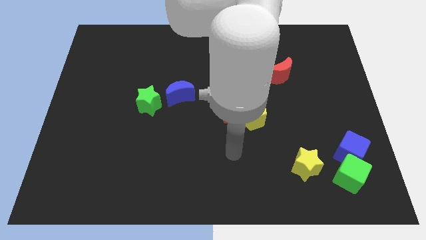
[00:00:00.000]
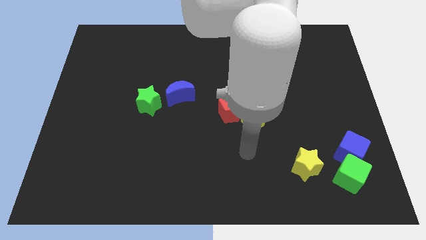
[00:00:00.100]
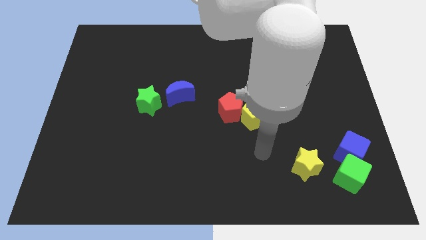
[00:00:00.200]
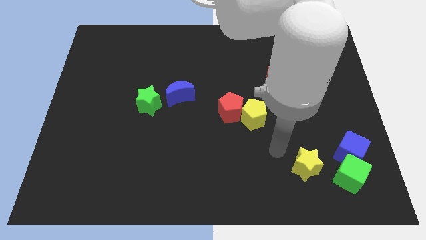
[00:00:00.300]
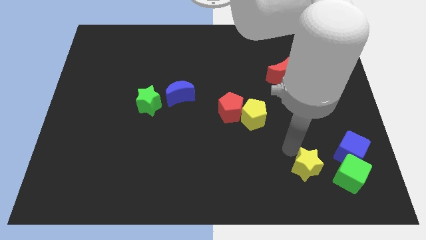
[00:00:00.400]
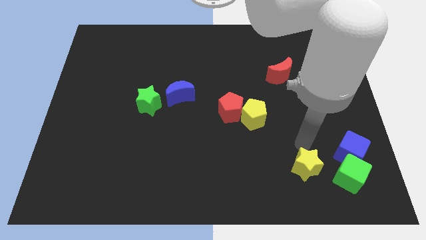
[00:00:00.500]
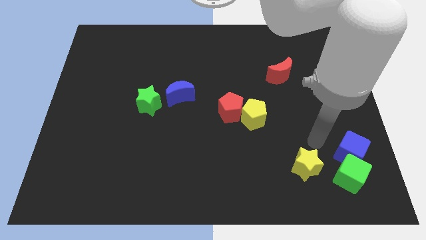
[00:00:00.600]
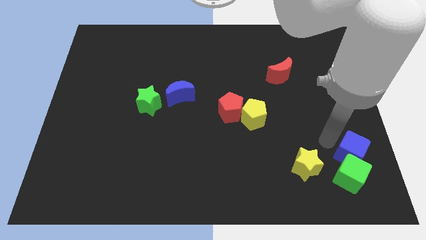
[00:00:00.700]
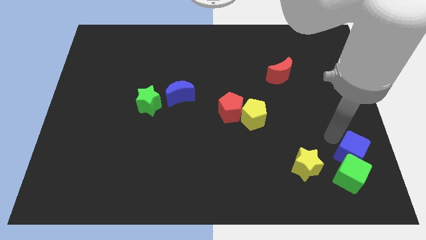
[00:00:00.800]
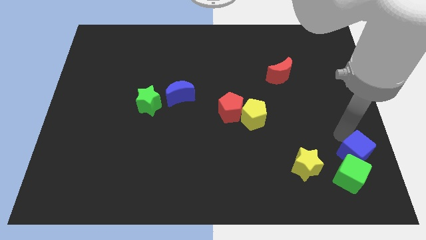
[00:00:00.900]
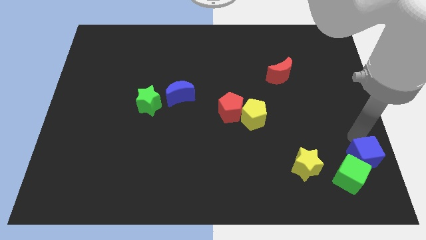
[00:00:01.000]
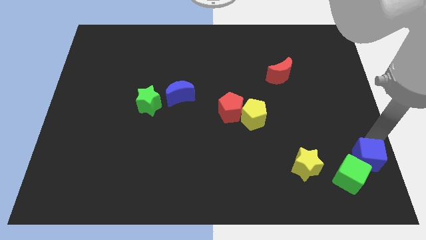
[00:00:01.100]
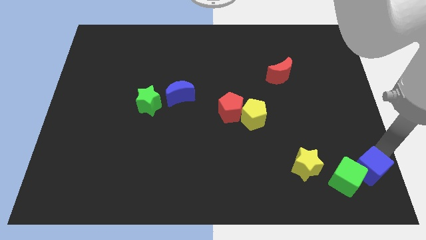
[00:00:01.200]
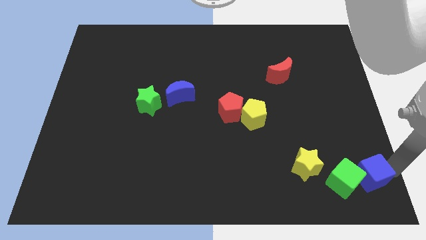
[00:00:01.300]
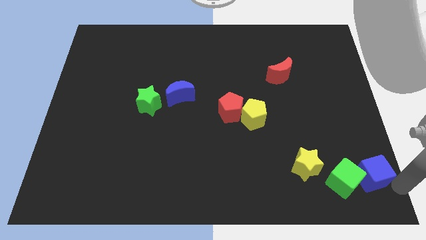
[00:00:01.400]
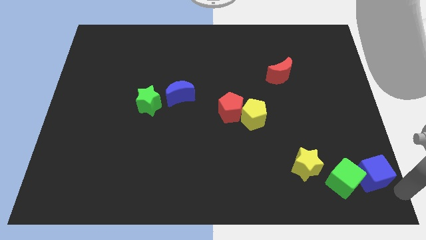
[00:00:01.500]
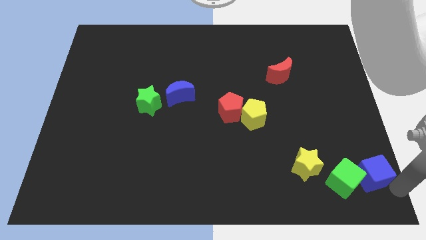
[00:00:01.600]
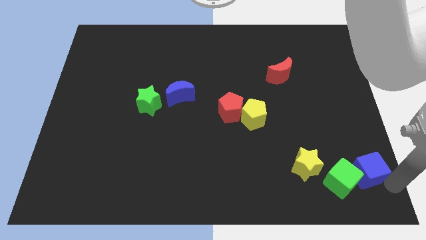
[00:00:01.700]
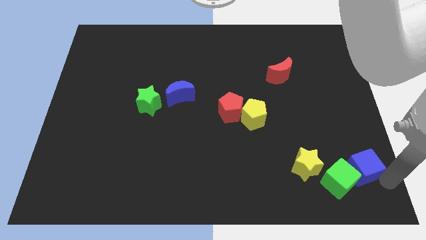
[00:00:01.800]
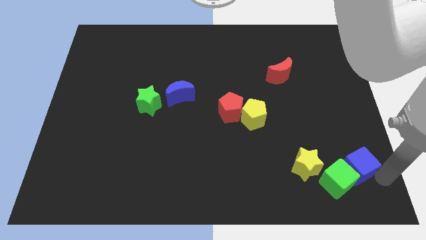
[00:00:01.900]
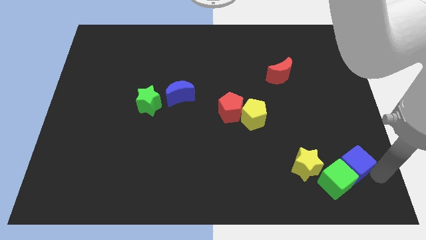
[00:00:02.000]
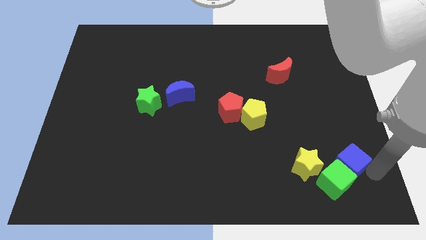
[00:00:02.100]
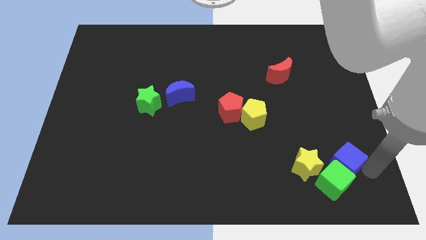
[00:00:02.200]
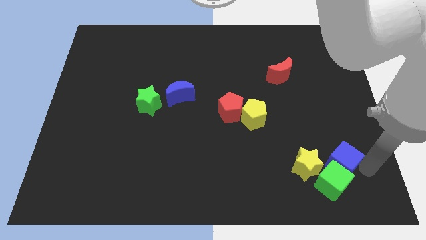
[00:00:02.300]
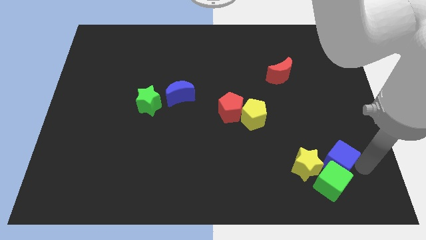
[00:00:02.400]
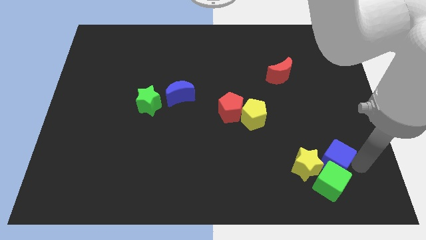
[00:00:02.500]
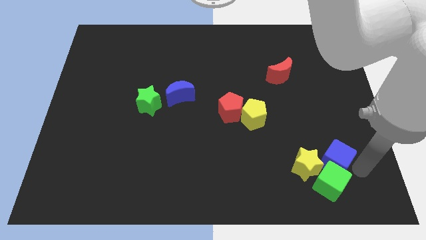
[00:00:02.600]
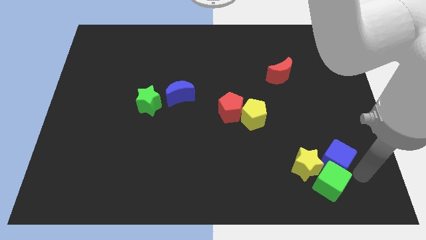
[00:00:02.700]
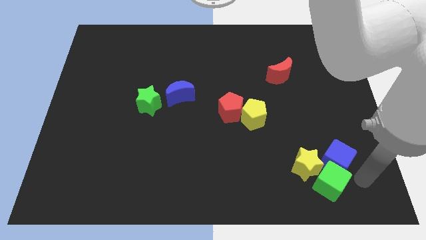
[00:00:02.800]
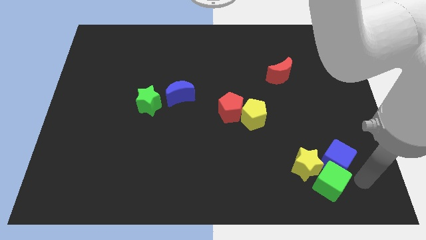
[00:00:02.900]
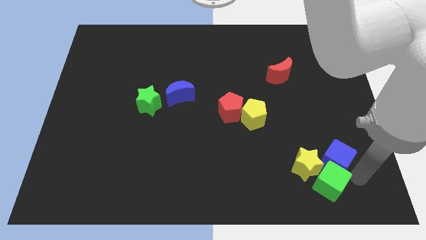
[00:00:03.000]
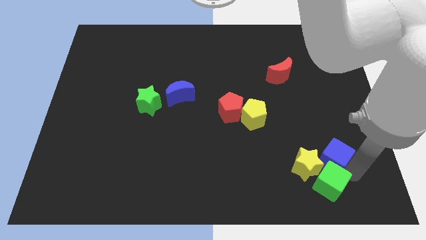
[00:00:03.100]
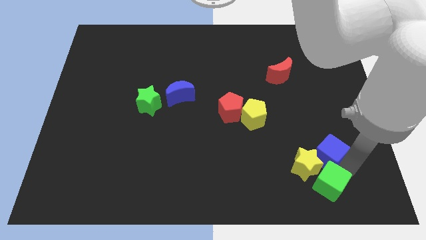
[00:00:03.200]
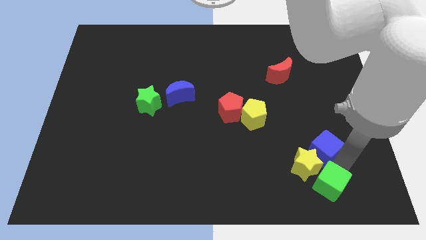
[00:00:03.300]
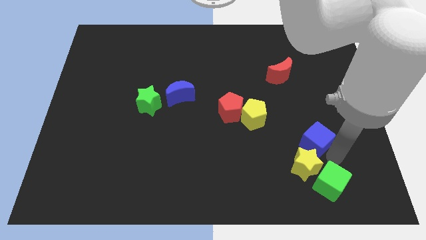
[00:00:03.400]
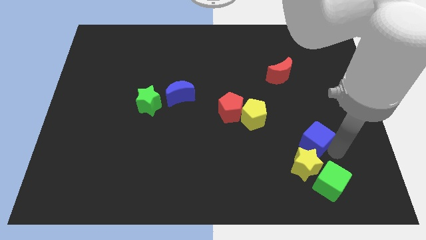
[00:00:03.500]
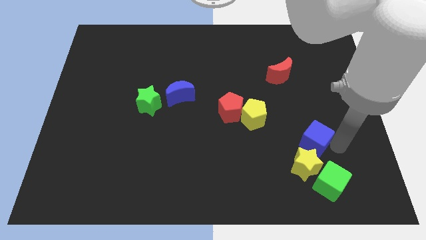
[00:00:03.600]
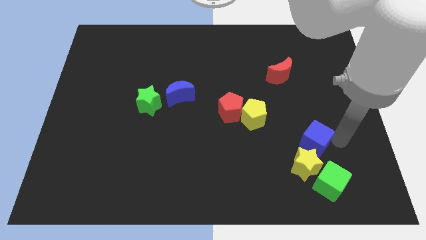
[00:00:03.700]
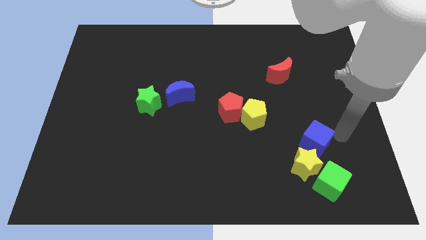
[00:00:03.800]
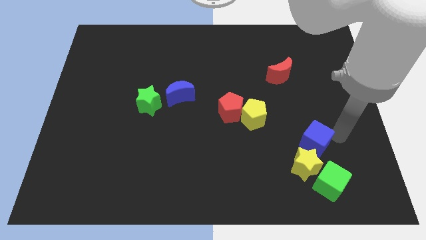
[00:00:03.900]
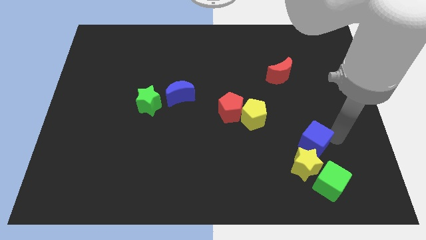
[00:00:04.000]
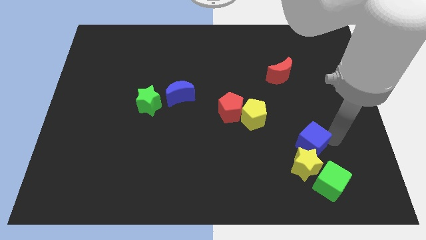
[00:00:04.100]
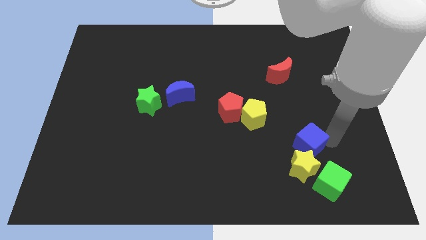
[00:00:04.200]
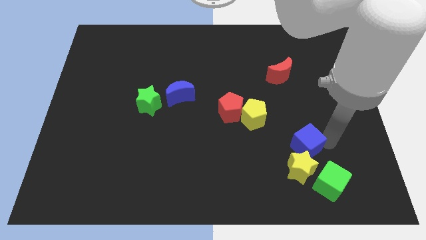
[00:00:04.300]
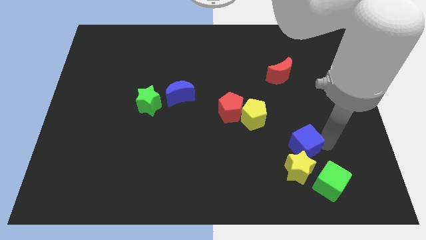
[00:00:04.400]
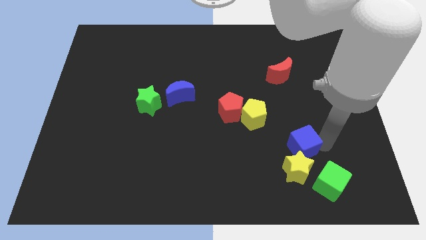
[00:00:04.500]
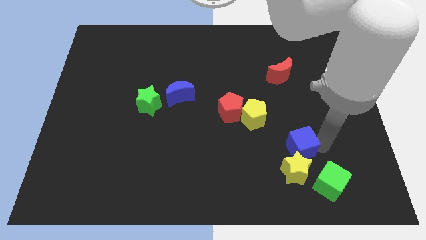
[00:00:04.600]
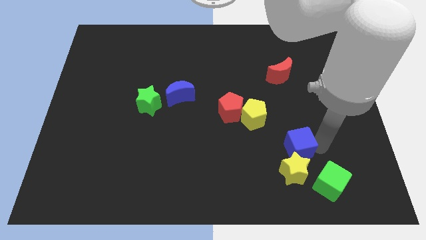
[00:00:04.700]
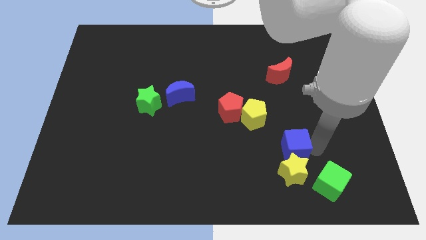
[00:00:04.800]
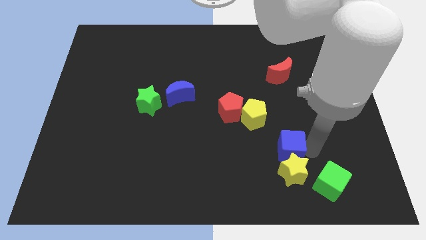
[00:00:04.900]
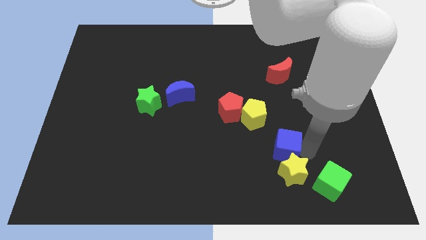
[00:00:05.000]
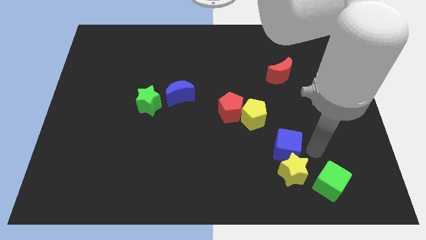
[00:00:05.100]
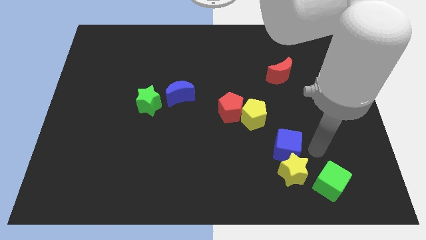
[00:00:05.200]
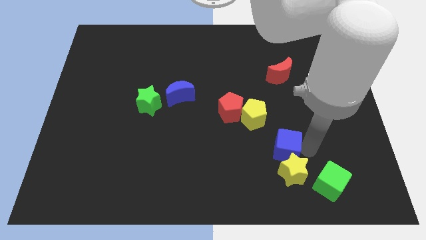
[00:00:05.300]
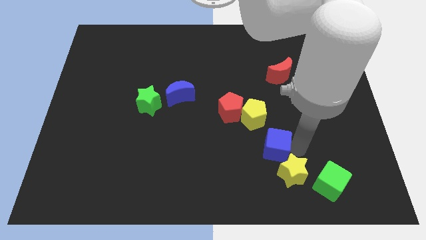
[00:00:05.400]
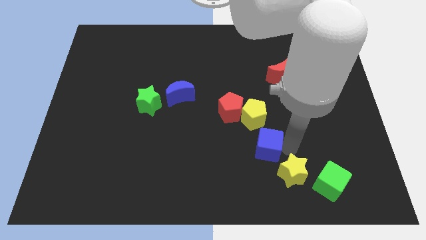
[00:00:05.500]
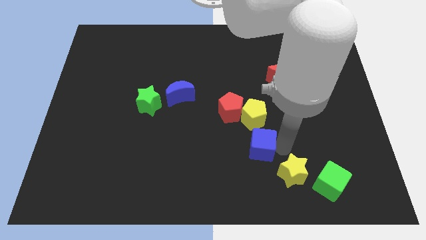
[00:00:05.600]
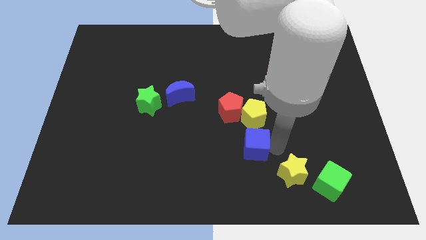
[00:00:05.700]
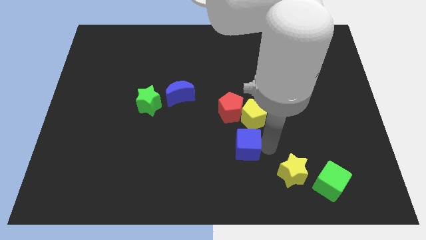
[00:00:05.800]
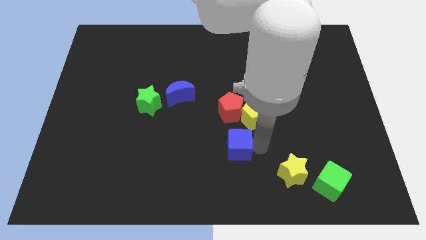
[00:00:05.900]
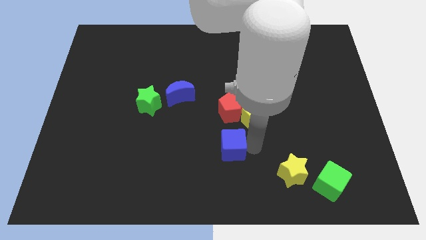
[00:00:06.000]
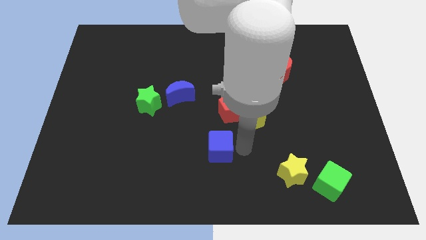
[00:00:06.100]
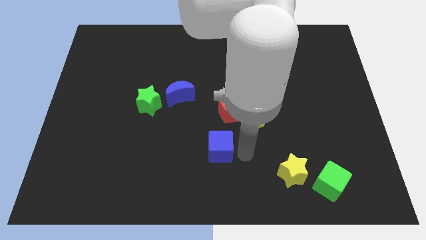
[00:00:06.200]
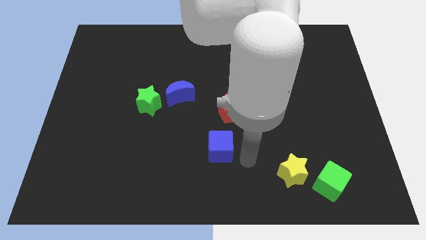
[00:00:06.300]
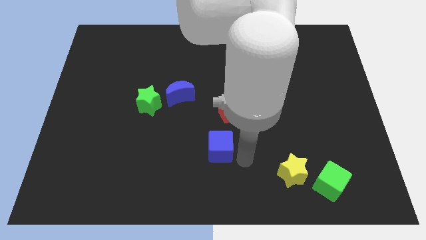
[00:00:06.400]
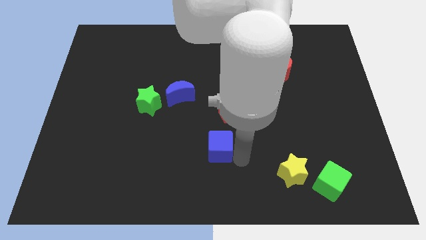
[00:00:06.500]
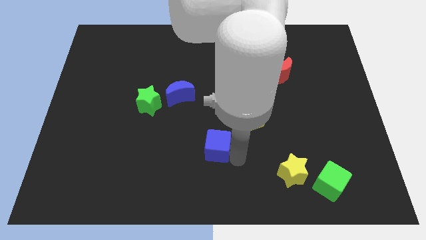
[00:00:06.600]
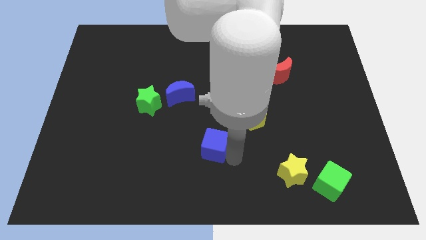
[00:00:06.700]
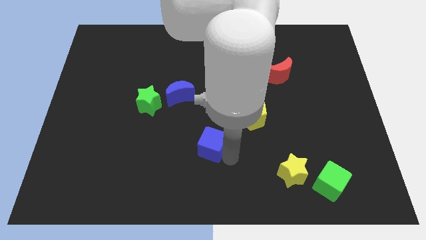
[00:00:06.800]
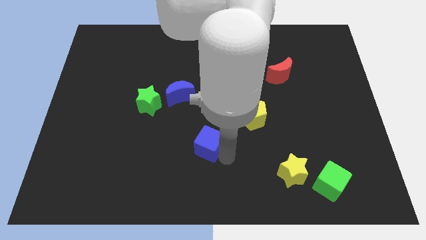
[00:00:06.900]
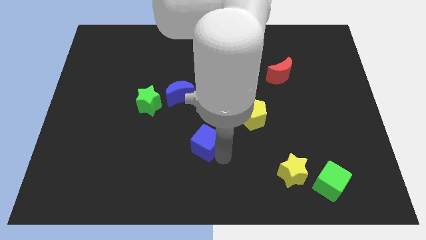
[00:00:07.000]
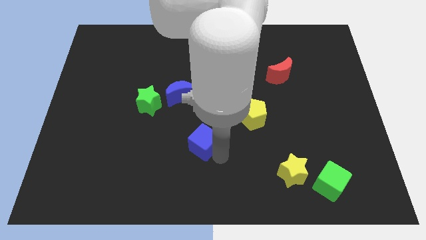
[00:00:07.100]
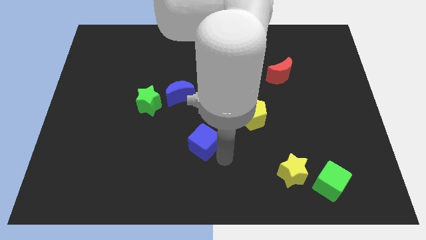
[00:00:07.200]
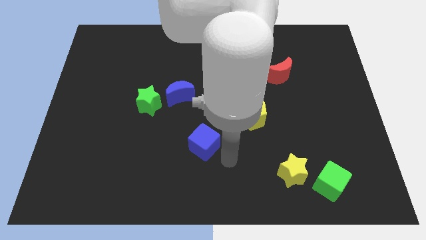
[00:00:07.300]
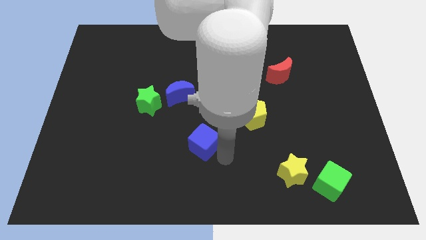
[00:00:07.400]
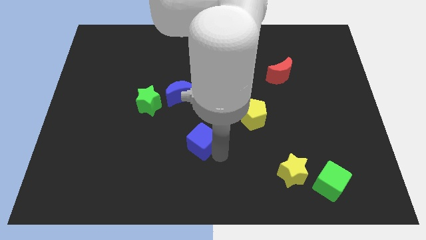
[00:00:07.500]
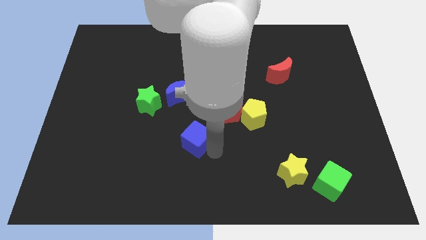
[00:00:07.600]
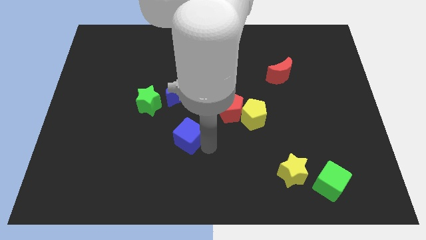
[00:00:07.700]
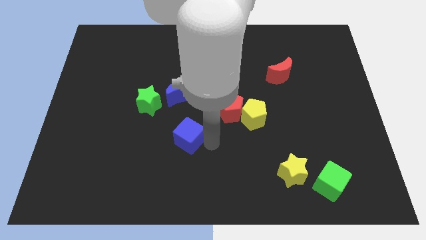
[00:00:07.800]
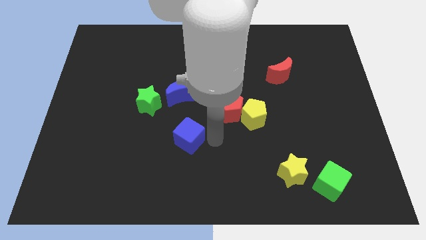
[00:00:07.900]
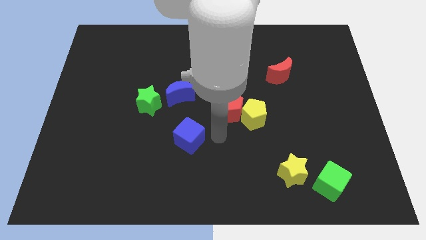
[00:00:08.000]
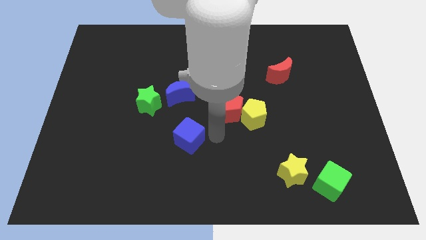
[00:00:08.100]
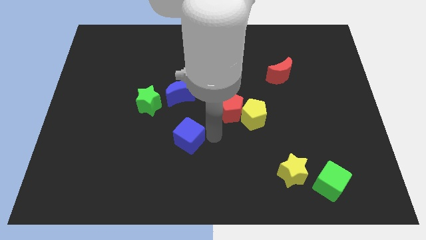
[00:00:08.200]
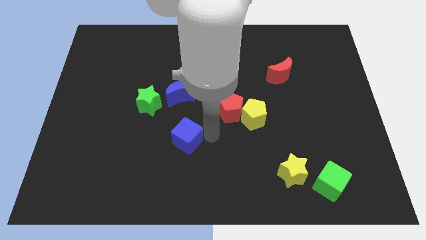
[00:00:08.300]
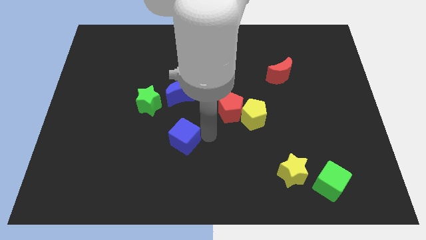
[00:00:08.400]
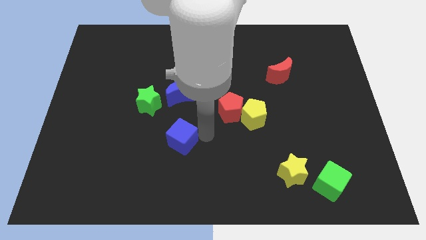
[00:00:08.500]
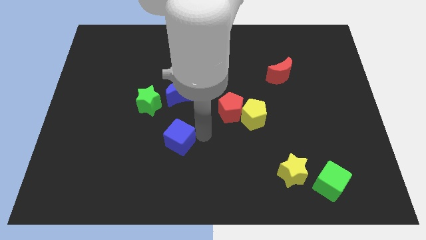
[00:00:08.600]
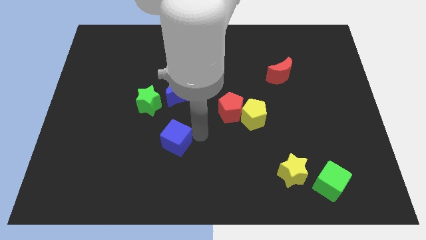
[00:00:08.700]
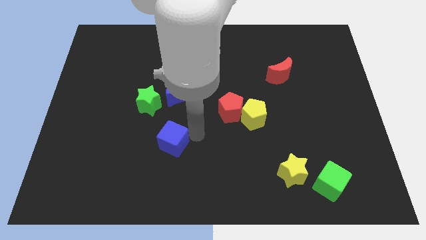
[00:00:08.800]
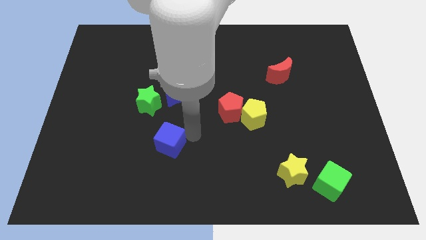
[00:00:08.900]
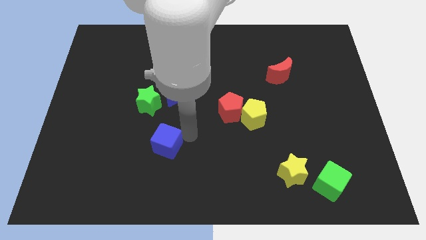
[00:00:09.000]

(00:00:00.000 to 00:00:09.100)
put the blue cube to the bottom side of the green star
